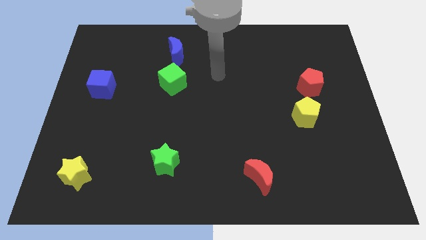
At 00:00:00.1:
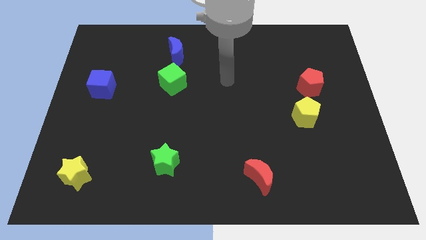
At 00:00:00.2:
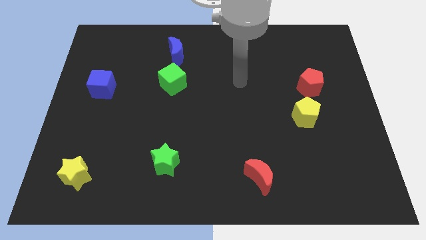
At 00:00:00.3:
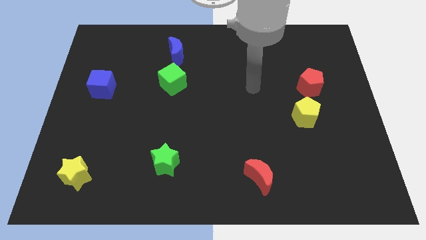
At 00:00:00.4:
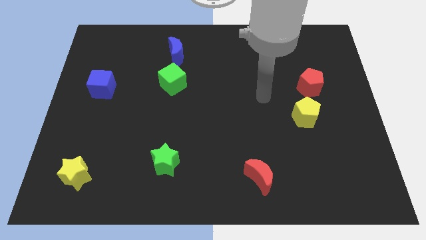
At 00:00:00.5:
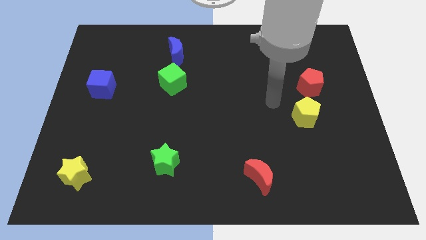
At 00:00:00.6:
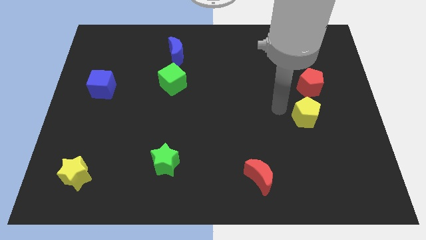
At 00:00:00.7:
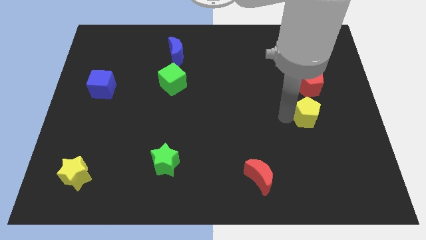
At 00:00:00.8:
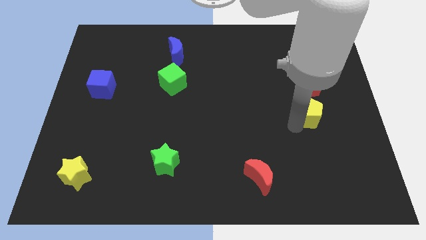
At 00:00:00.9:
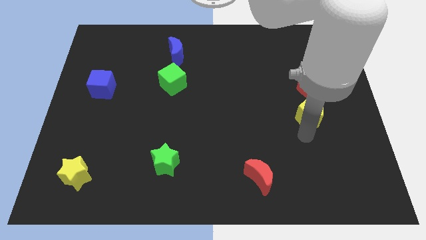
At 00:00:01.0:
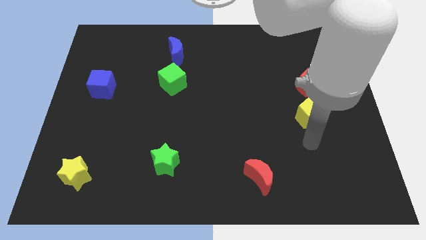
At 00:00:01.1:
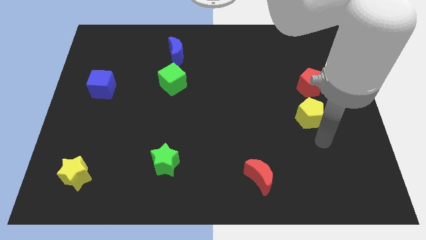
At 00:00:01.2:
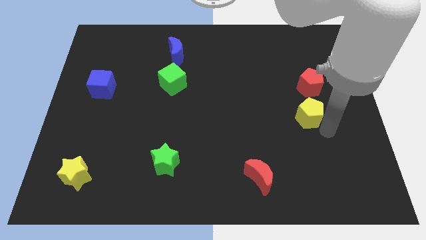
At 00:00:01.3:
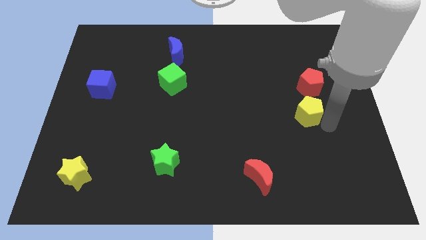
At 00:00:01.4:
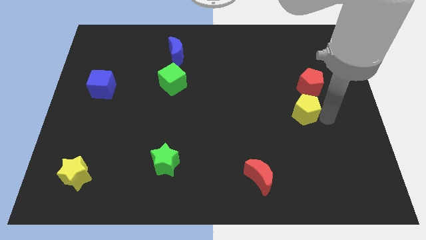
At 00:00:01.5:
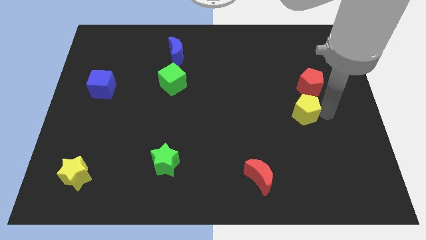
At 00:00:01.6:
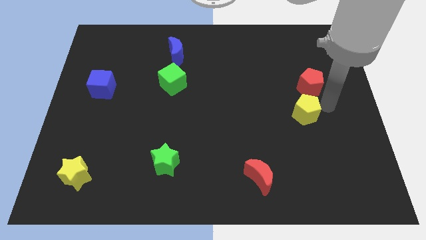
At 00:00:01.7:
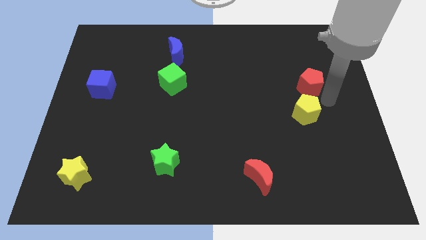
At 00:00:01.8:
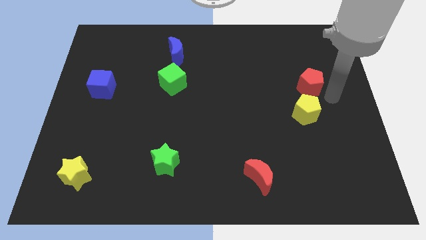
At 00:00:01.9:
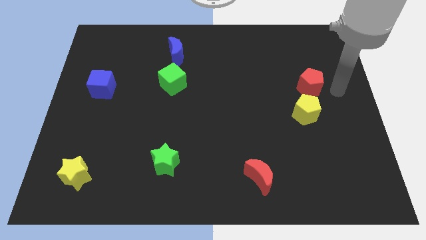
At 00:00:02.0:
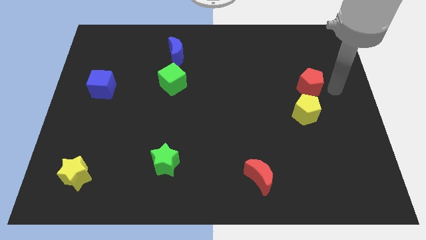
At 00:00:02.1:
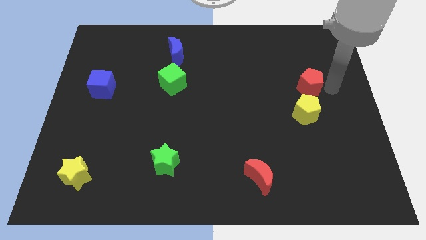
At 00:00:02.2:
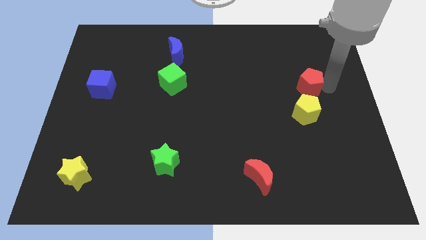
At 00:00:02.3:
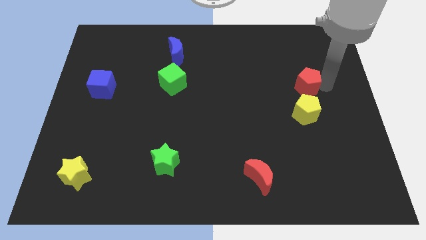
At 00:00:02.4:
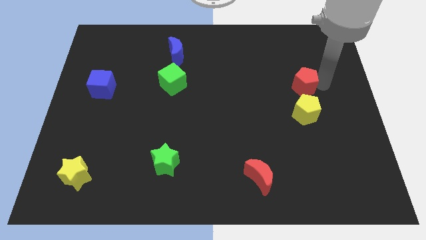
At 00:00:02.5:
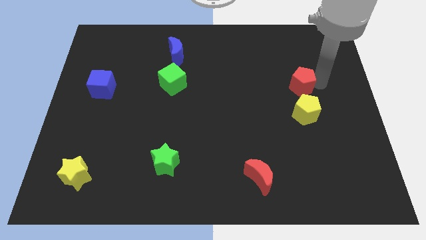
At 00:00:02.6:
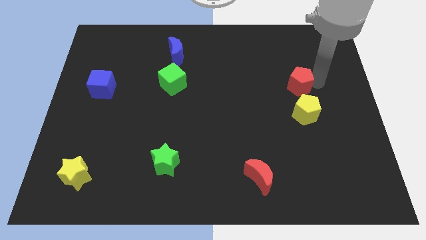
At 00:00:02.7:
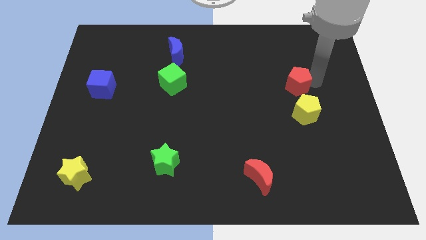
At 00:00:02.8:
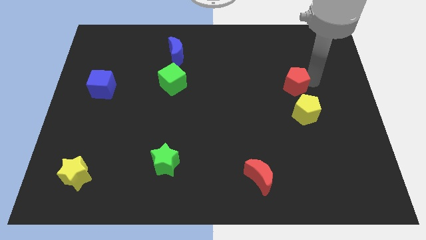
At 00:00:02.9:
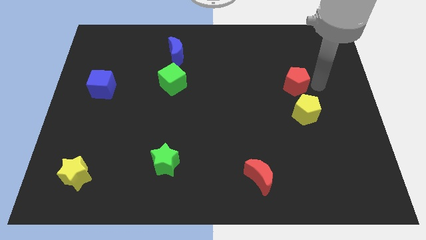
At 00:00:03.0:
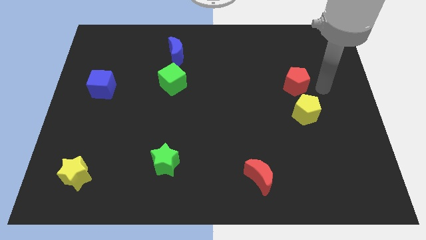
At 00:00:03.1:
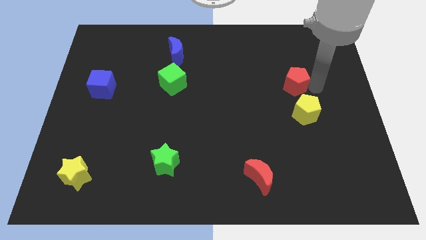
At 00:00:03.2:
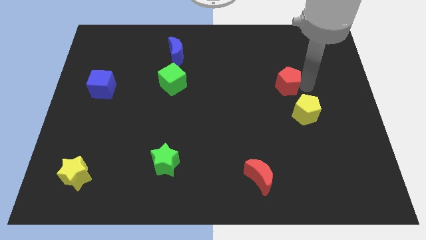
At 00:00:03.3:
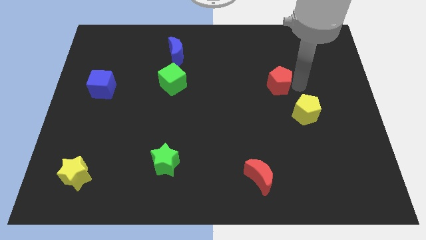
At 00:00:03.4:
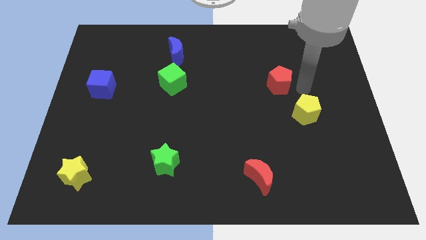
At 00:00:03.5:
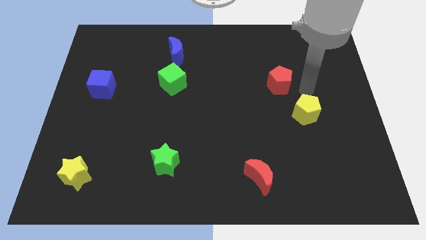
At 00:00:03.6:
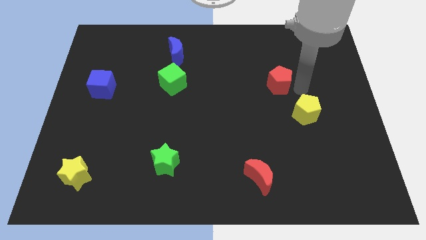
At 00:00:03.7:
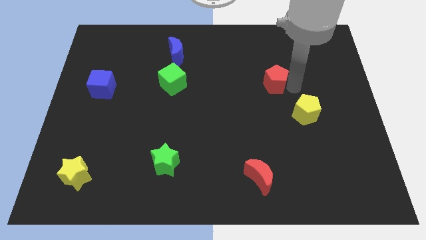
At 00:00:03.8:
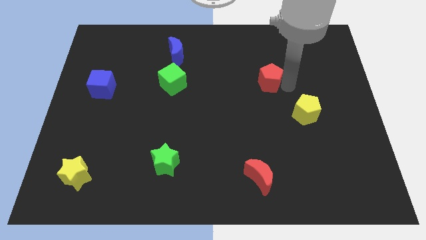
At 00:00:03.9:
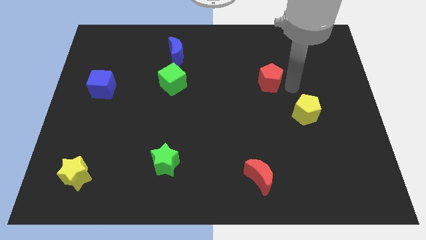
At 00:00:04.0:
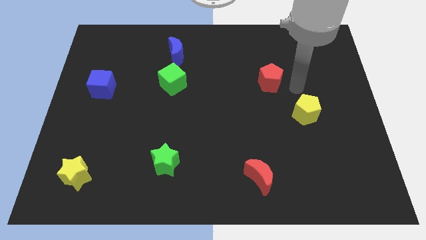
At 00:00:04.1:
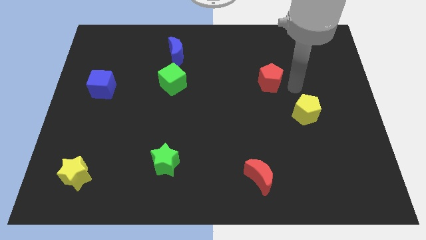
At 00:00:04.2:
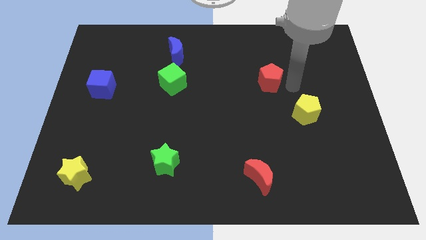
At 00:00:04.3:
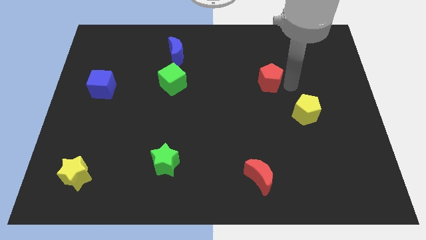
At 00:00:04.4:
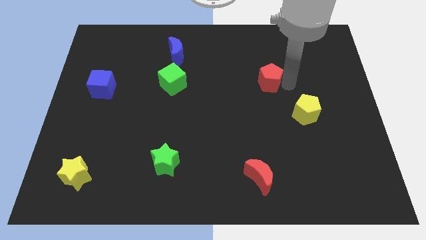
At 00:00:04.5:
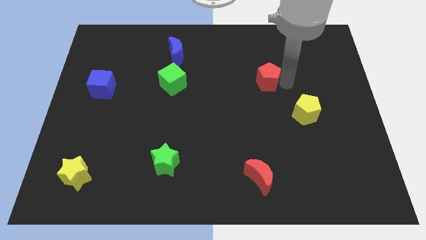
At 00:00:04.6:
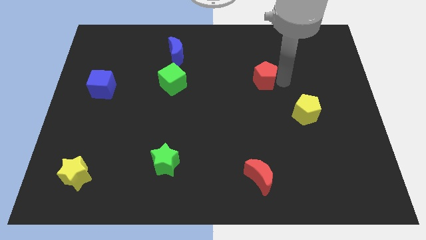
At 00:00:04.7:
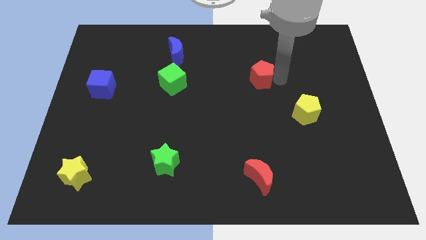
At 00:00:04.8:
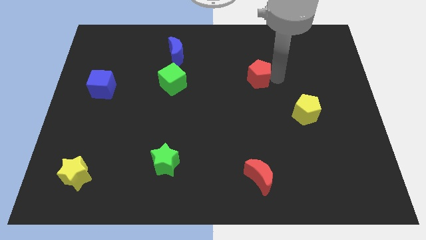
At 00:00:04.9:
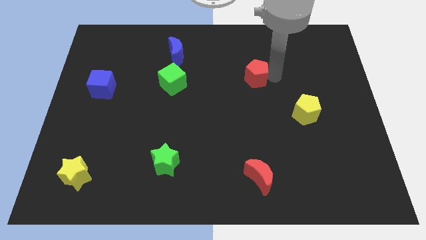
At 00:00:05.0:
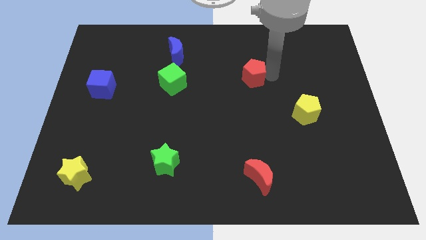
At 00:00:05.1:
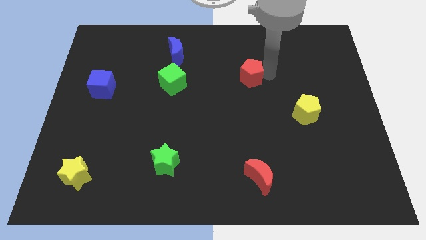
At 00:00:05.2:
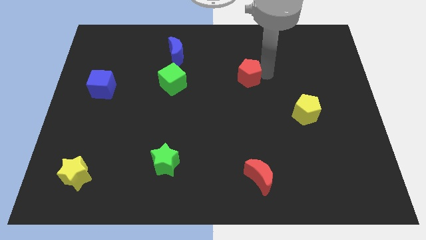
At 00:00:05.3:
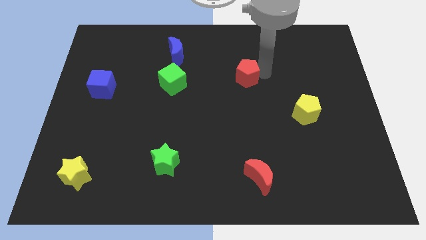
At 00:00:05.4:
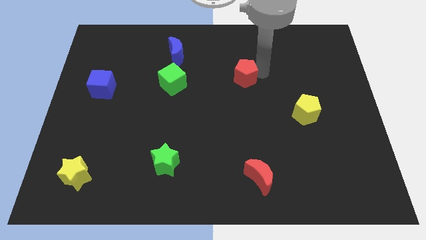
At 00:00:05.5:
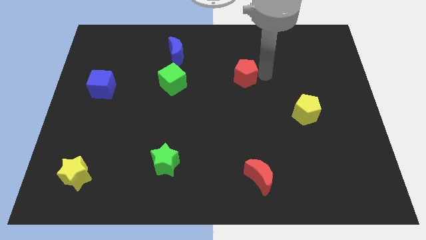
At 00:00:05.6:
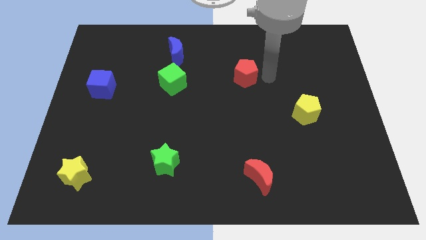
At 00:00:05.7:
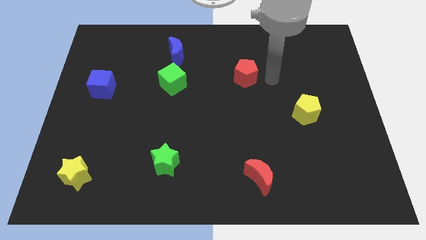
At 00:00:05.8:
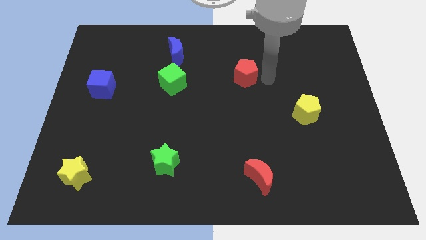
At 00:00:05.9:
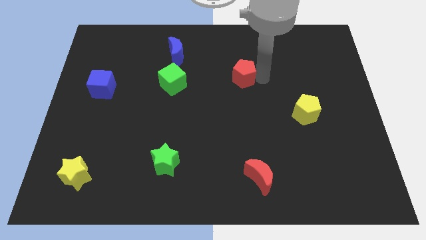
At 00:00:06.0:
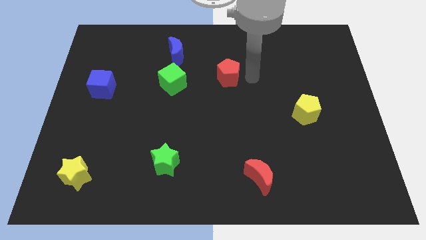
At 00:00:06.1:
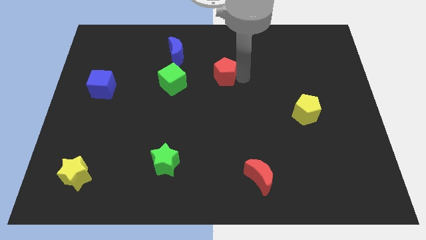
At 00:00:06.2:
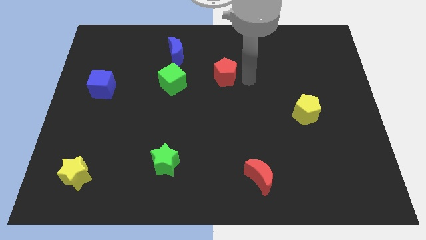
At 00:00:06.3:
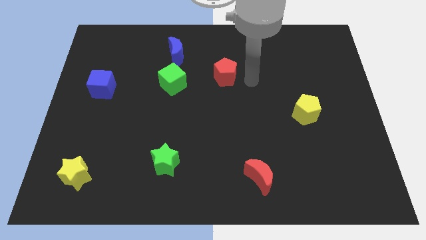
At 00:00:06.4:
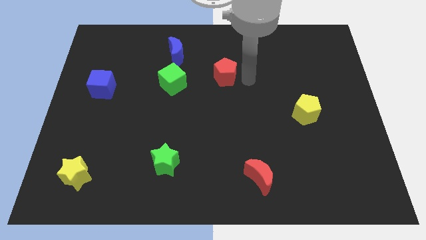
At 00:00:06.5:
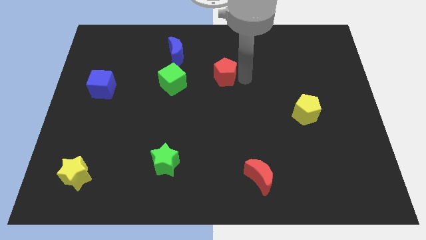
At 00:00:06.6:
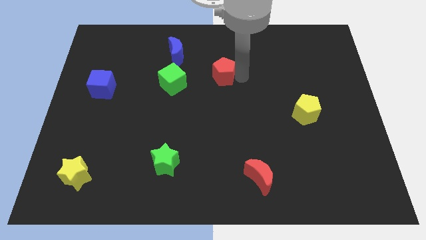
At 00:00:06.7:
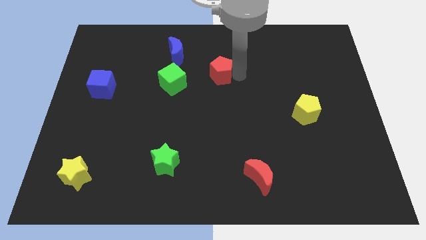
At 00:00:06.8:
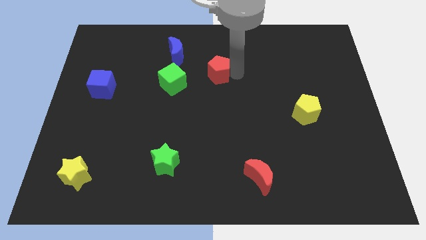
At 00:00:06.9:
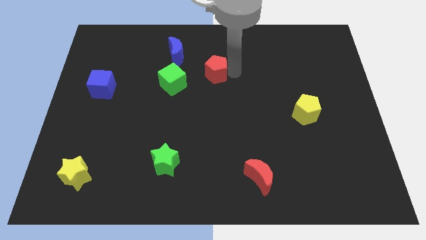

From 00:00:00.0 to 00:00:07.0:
push the red pentagon to the bottom right side of the blue moon

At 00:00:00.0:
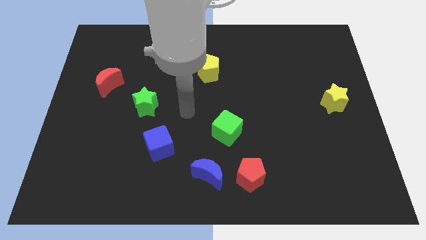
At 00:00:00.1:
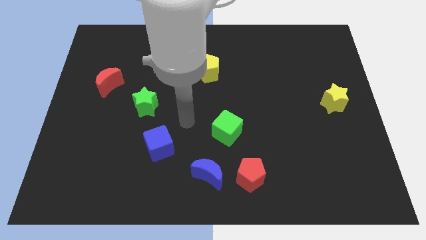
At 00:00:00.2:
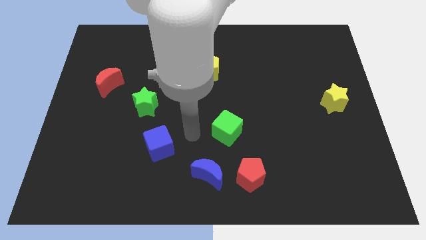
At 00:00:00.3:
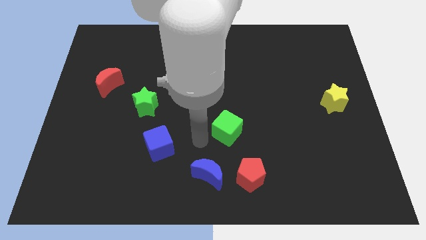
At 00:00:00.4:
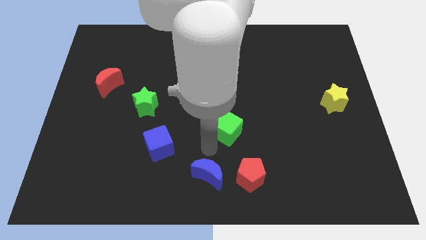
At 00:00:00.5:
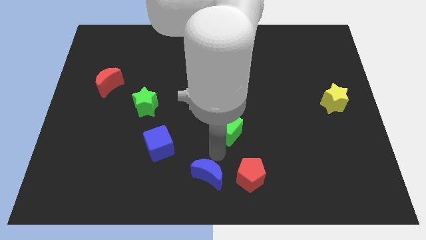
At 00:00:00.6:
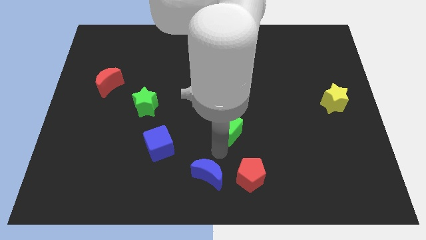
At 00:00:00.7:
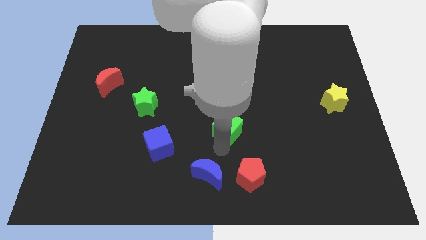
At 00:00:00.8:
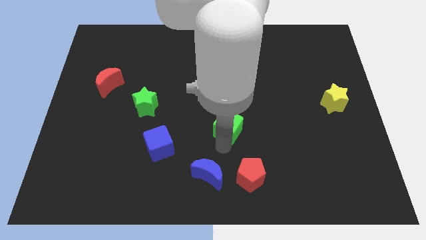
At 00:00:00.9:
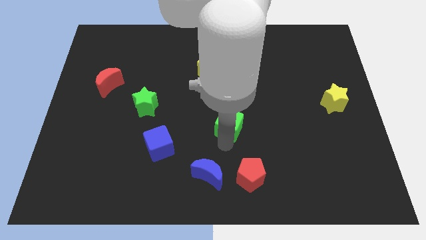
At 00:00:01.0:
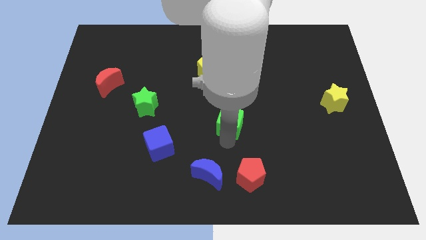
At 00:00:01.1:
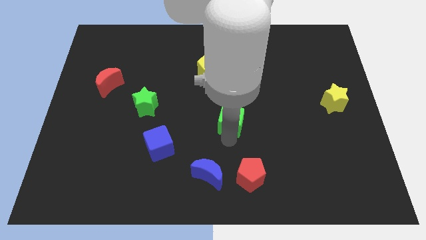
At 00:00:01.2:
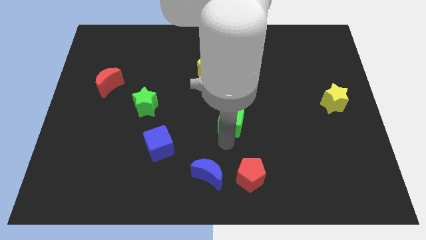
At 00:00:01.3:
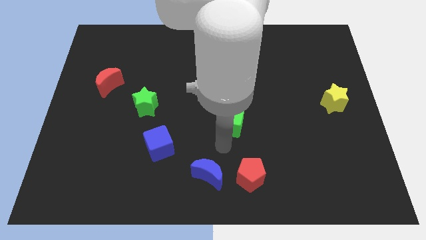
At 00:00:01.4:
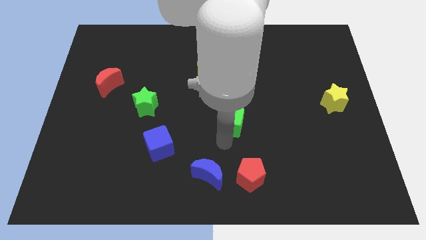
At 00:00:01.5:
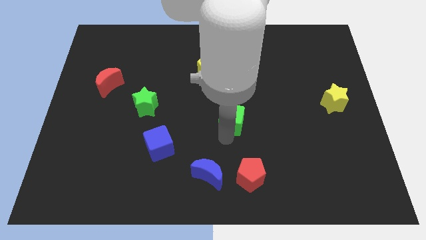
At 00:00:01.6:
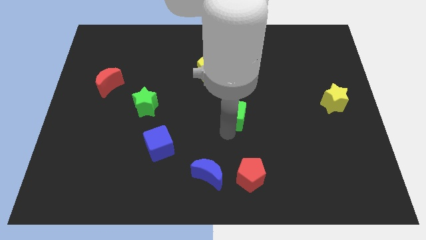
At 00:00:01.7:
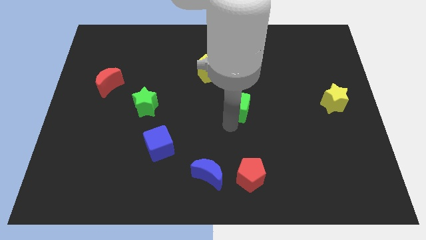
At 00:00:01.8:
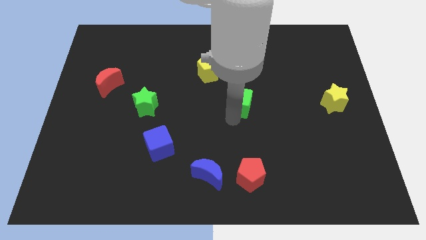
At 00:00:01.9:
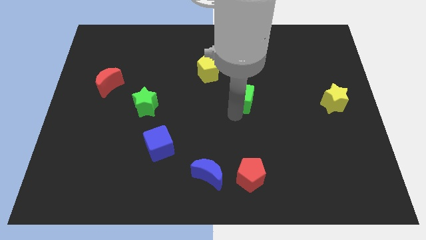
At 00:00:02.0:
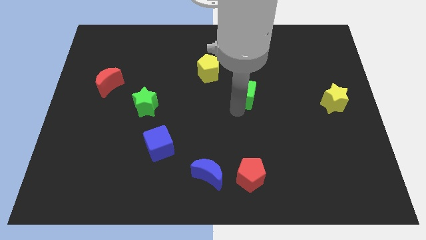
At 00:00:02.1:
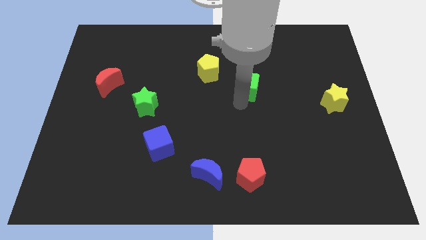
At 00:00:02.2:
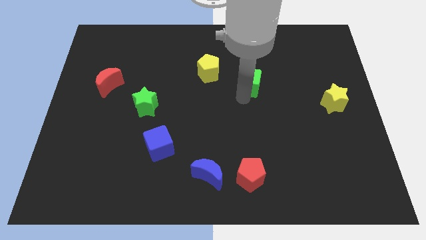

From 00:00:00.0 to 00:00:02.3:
put the green cube right of the yellow pentagon
